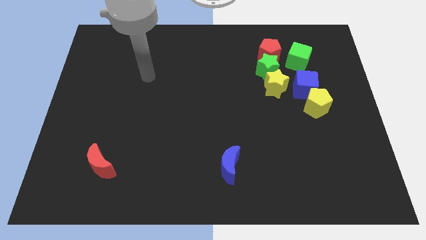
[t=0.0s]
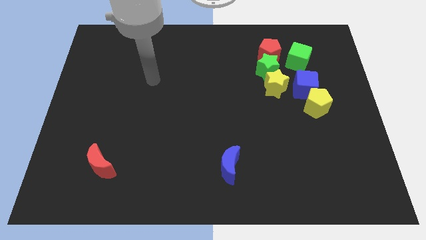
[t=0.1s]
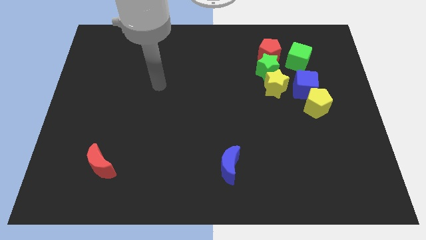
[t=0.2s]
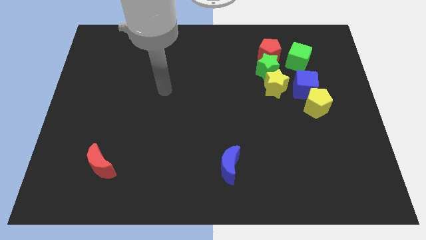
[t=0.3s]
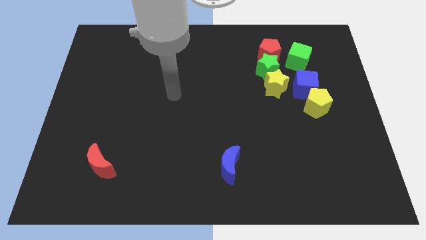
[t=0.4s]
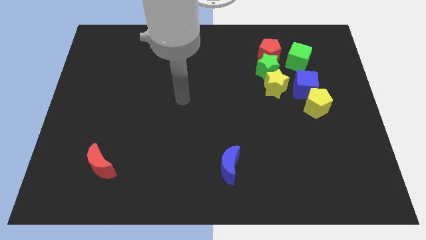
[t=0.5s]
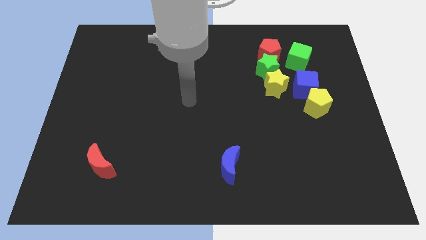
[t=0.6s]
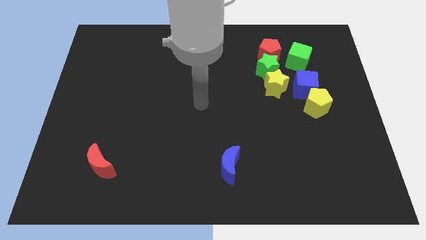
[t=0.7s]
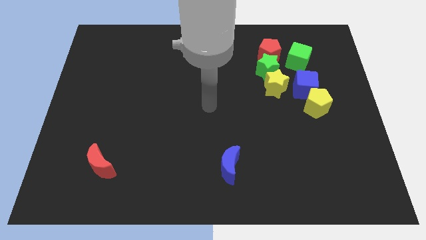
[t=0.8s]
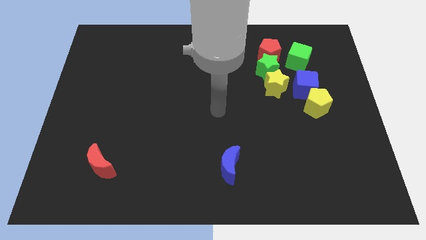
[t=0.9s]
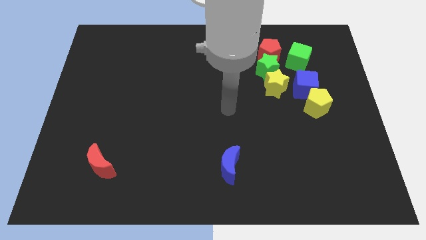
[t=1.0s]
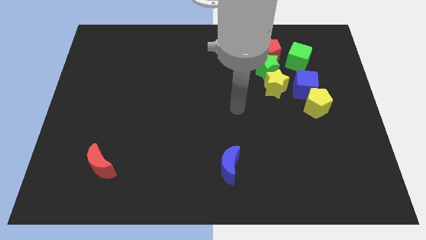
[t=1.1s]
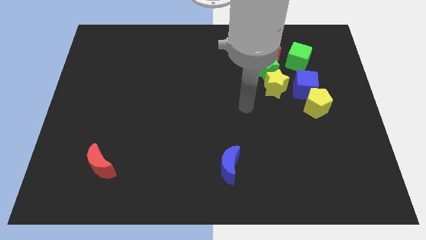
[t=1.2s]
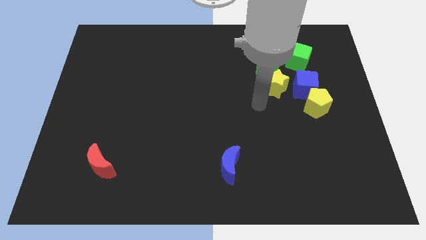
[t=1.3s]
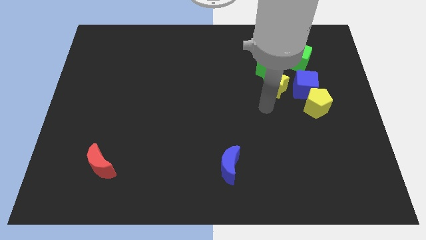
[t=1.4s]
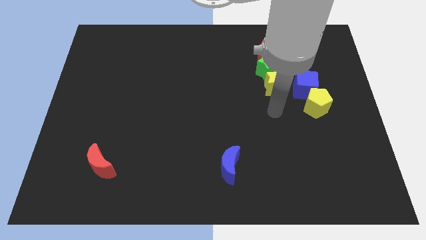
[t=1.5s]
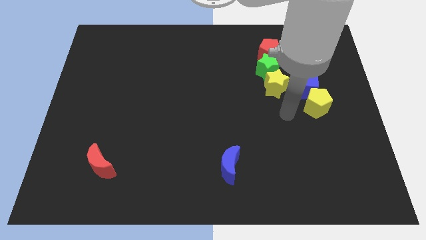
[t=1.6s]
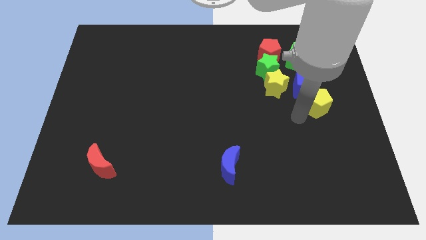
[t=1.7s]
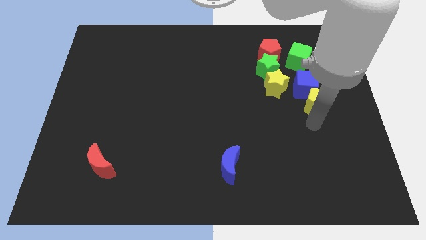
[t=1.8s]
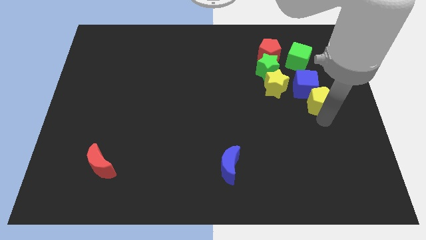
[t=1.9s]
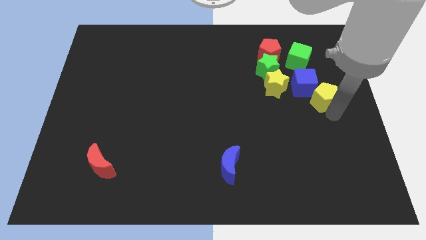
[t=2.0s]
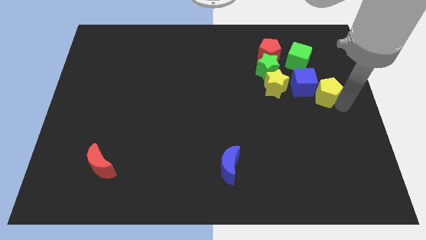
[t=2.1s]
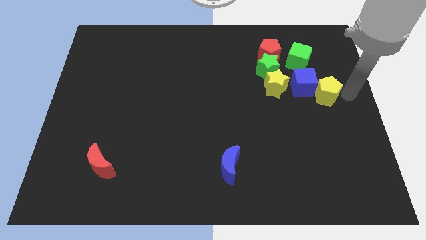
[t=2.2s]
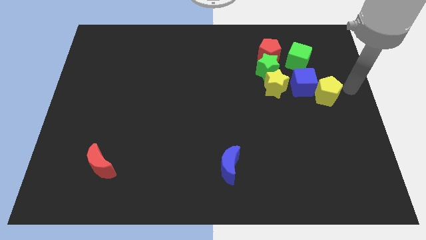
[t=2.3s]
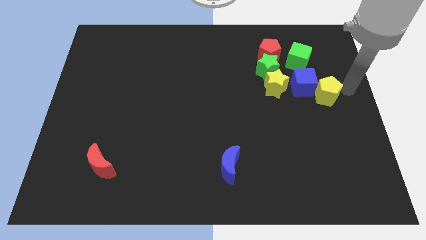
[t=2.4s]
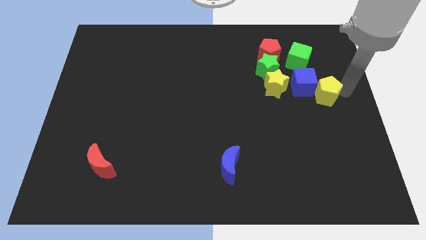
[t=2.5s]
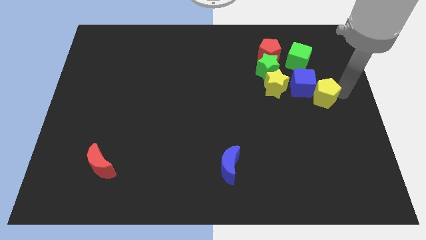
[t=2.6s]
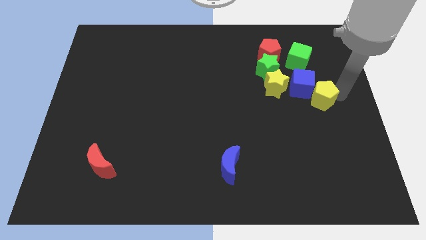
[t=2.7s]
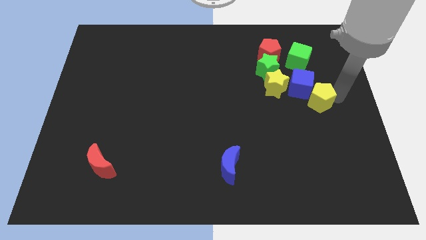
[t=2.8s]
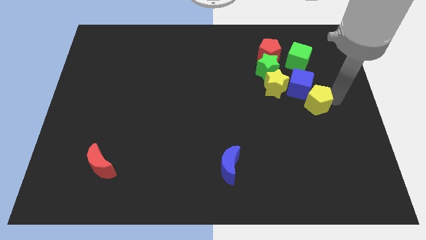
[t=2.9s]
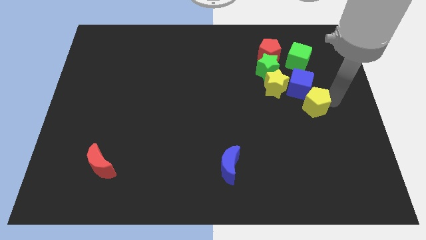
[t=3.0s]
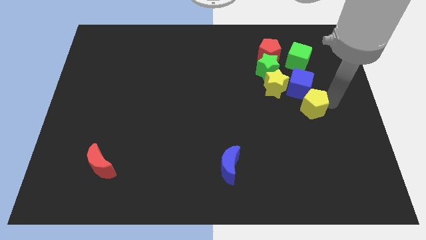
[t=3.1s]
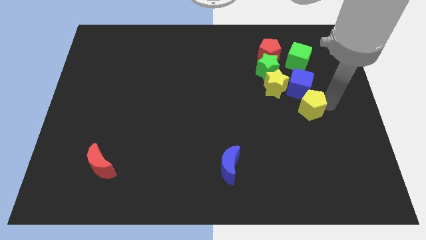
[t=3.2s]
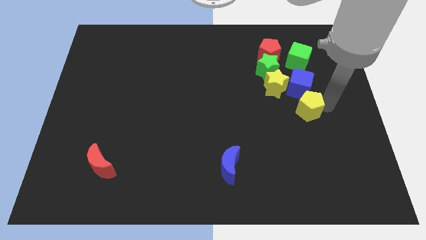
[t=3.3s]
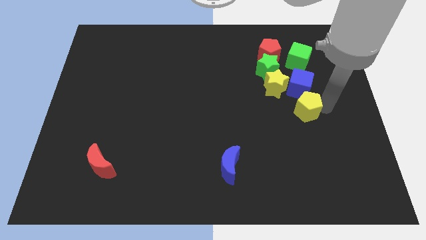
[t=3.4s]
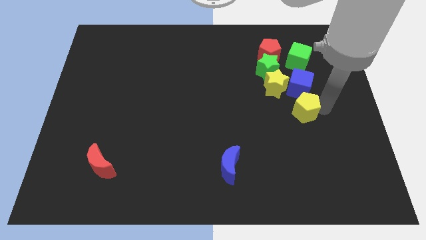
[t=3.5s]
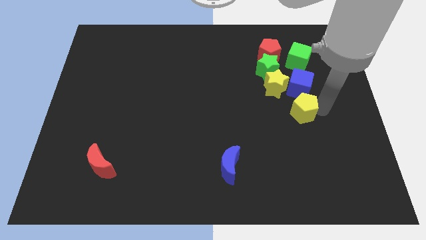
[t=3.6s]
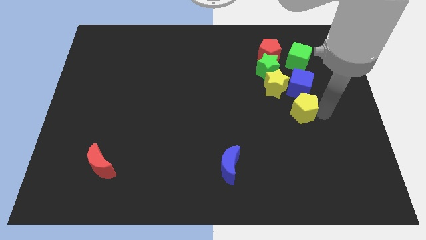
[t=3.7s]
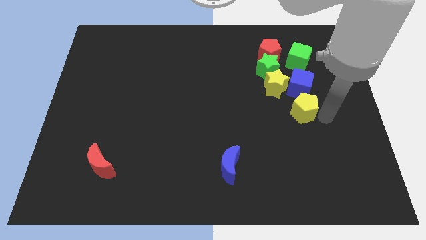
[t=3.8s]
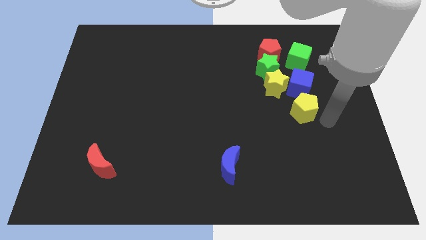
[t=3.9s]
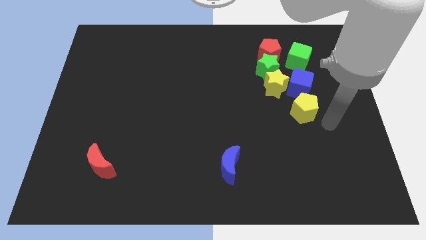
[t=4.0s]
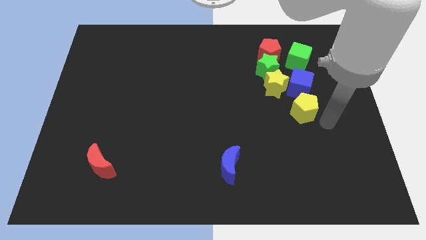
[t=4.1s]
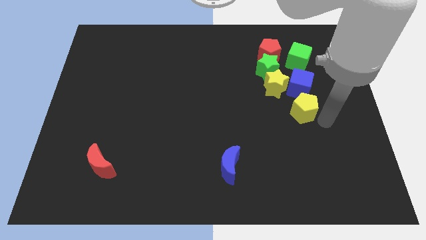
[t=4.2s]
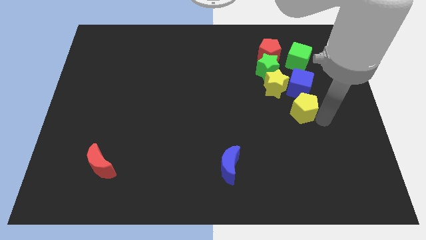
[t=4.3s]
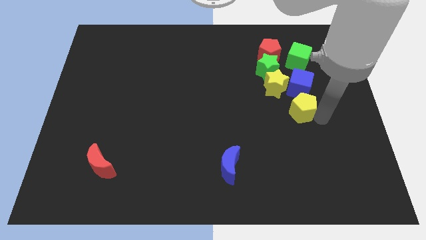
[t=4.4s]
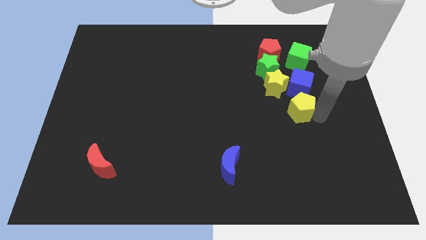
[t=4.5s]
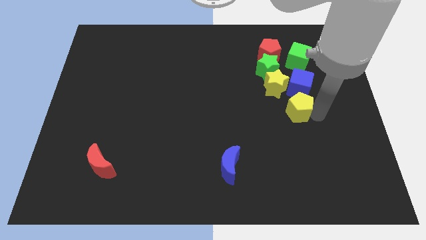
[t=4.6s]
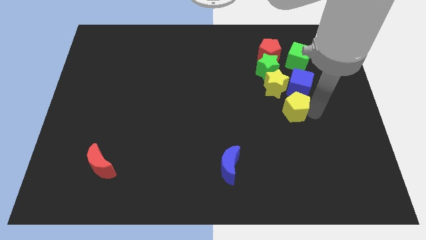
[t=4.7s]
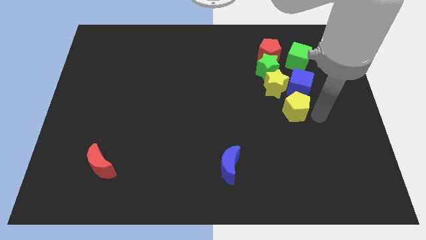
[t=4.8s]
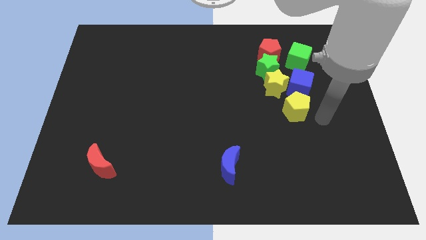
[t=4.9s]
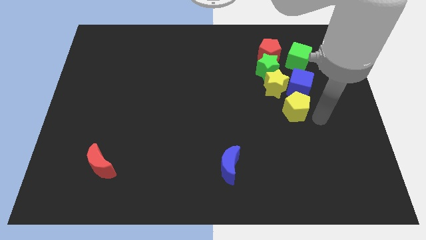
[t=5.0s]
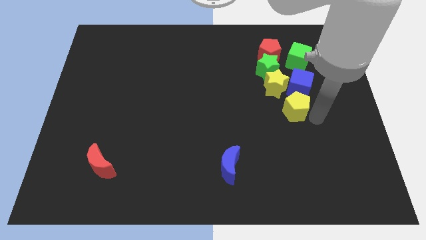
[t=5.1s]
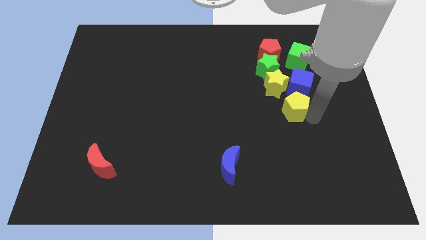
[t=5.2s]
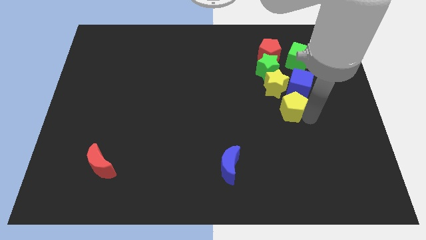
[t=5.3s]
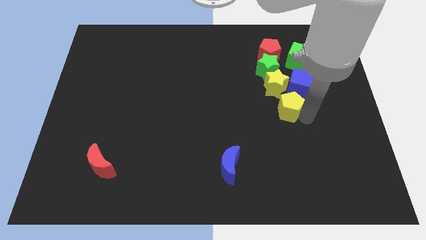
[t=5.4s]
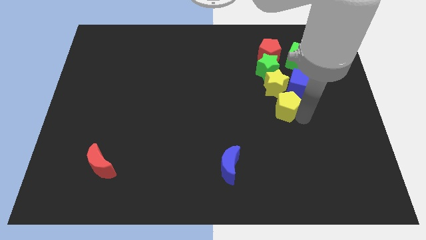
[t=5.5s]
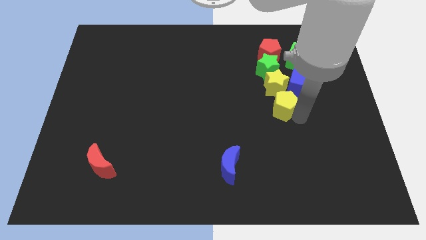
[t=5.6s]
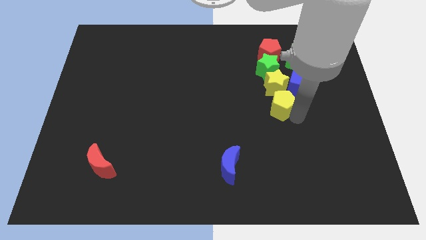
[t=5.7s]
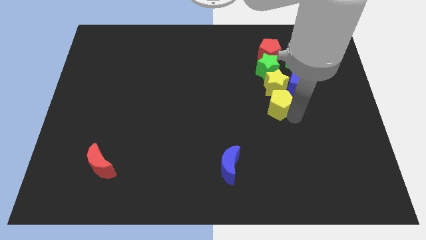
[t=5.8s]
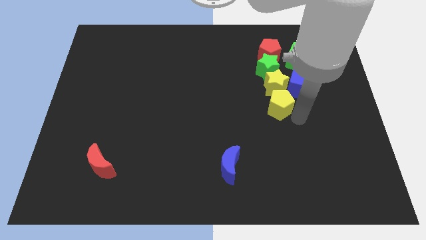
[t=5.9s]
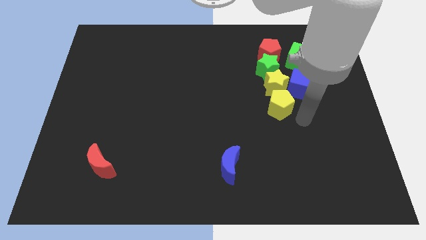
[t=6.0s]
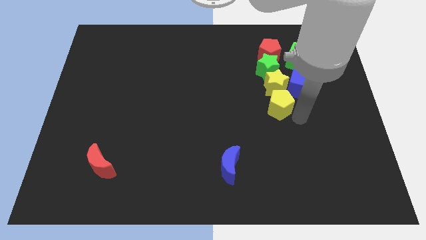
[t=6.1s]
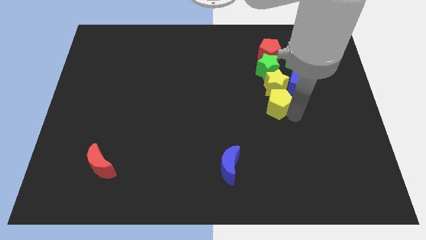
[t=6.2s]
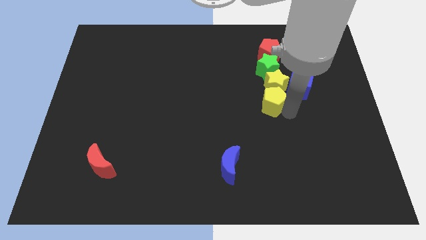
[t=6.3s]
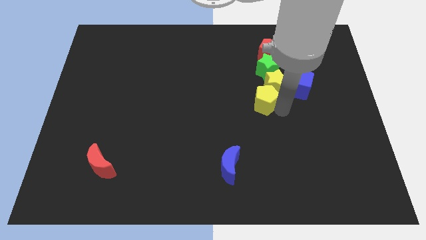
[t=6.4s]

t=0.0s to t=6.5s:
move the yellow pentagon just left of the blue cube

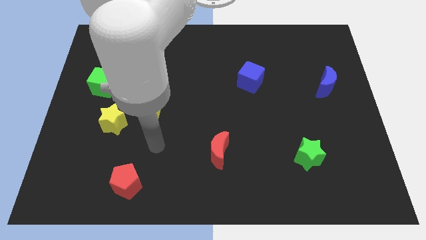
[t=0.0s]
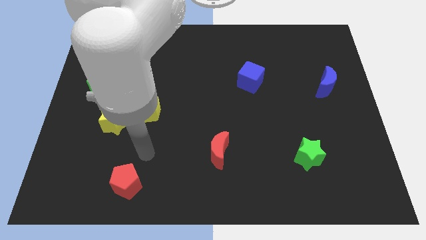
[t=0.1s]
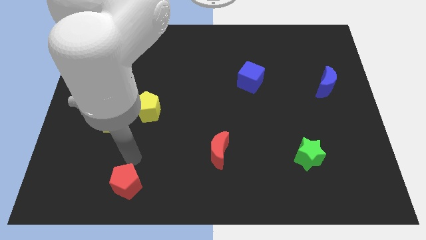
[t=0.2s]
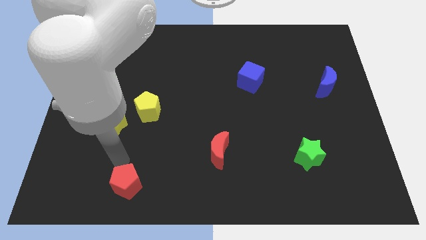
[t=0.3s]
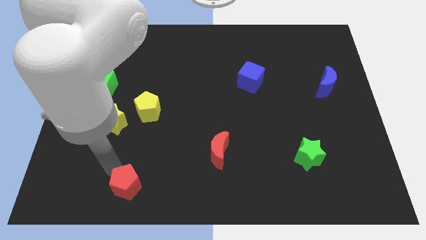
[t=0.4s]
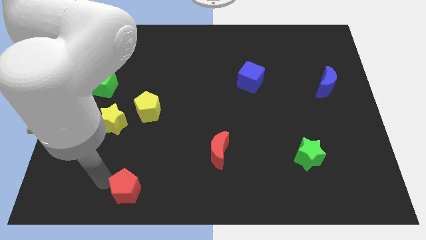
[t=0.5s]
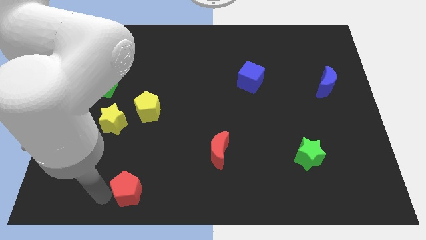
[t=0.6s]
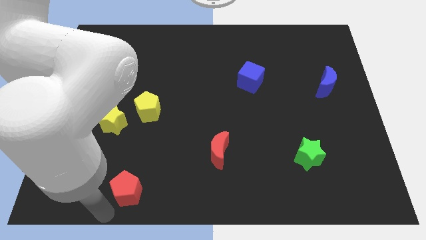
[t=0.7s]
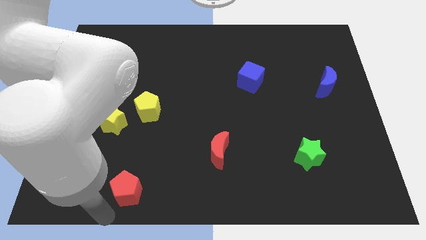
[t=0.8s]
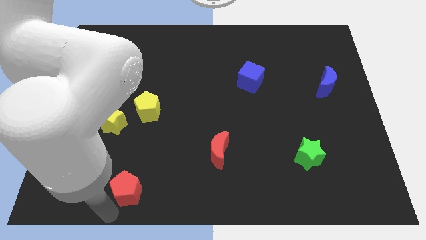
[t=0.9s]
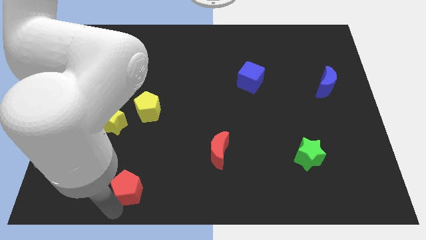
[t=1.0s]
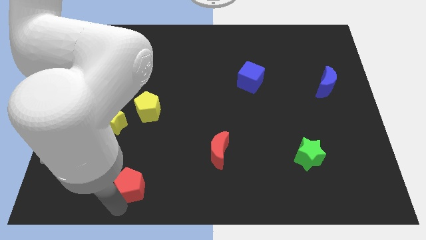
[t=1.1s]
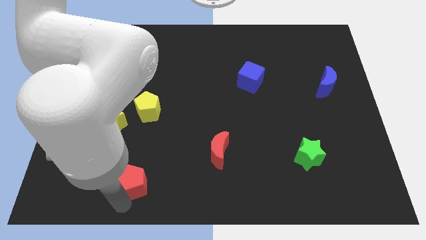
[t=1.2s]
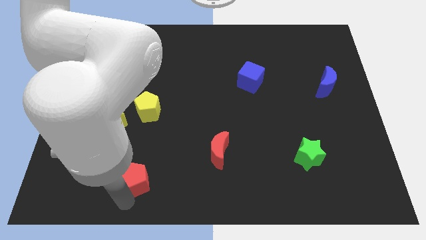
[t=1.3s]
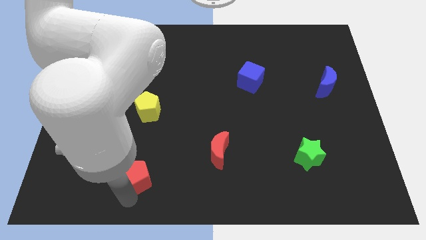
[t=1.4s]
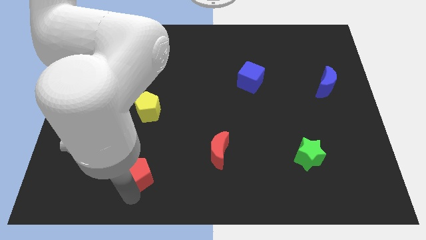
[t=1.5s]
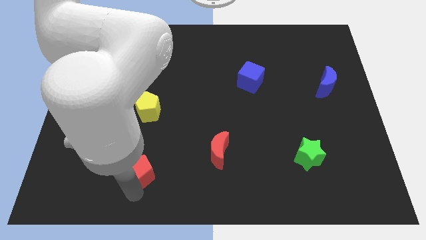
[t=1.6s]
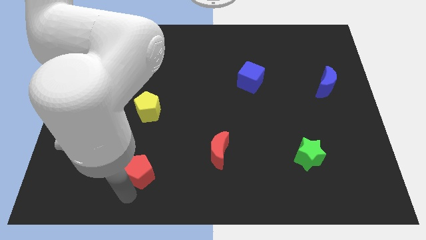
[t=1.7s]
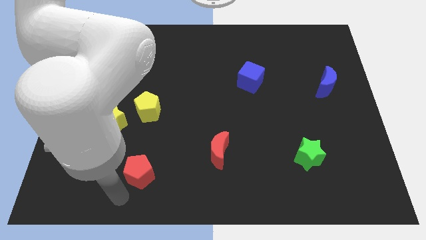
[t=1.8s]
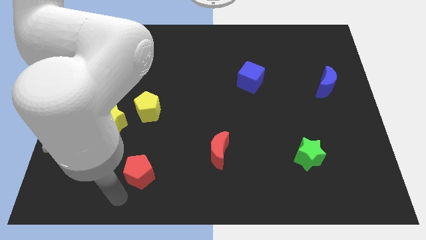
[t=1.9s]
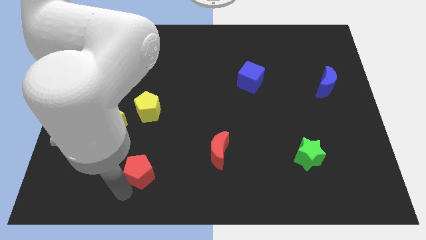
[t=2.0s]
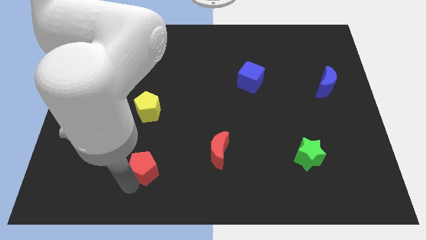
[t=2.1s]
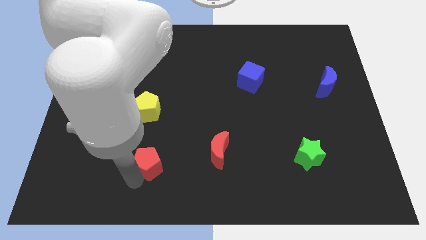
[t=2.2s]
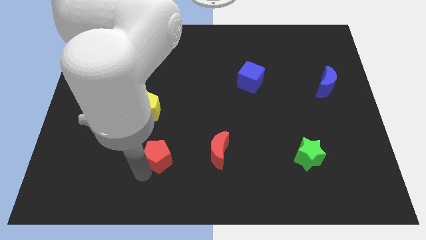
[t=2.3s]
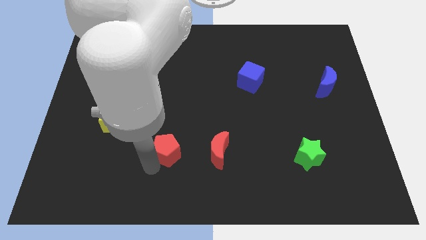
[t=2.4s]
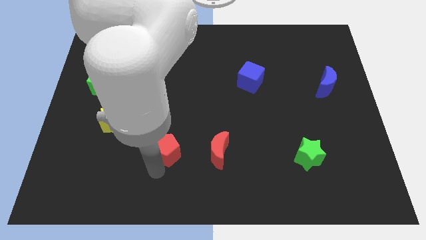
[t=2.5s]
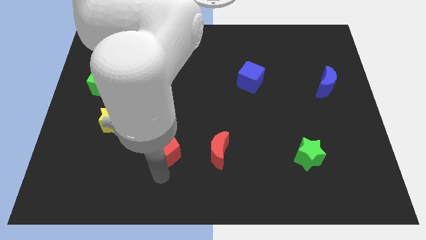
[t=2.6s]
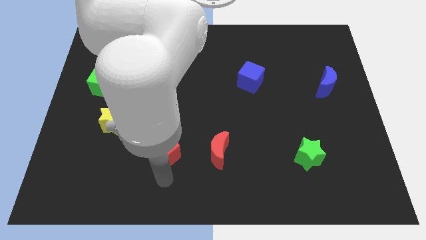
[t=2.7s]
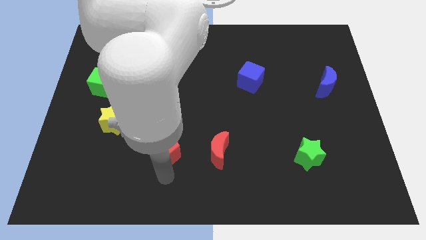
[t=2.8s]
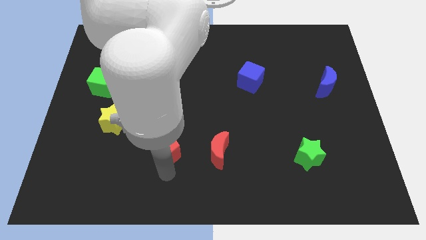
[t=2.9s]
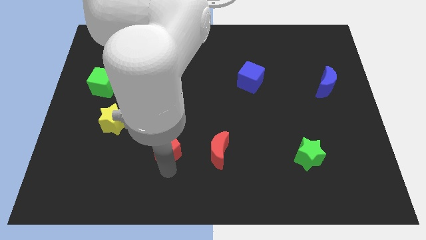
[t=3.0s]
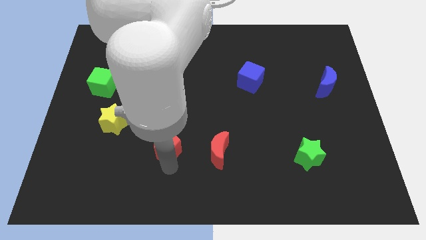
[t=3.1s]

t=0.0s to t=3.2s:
move the red pentagon to the bottom right of the yellow pentagon
